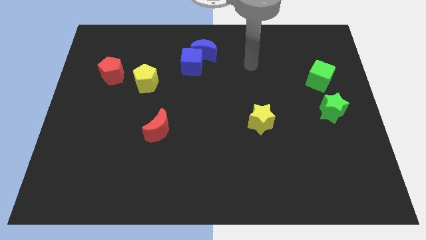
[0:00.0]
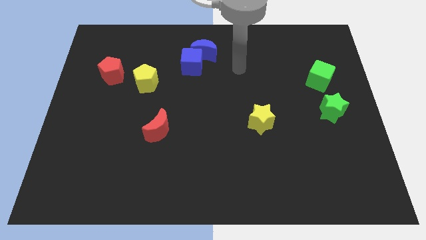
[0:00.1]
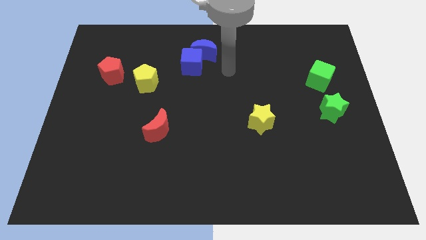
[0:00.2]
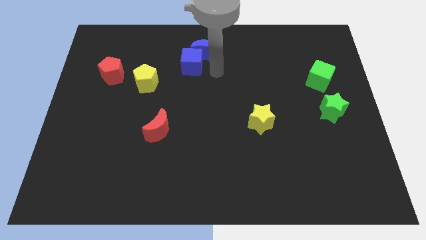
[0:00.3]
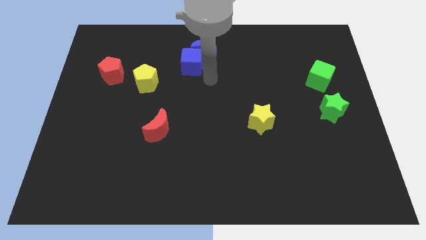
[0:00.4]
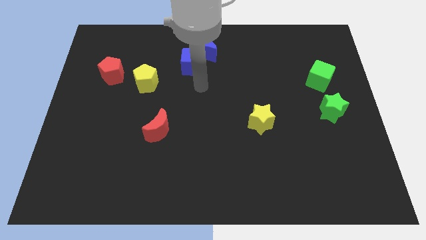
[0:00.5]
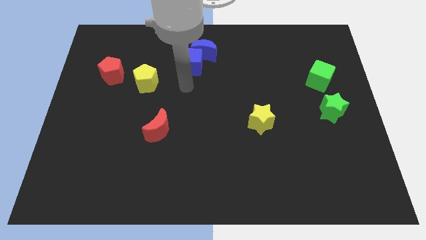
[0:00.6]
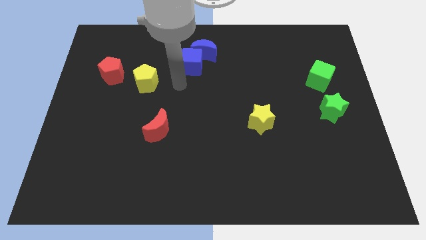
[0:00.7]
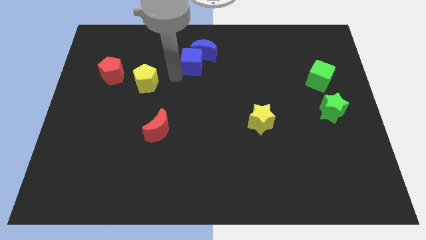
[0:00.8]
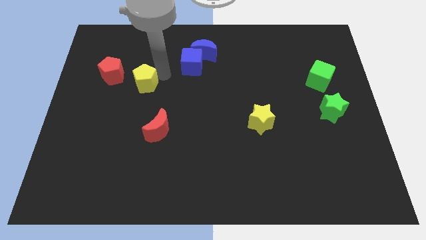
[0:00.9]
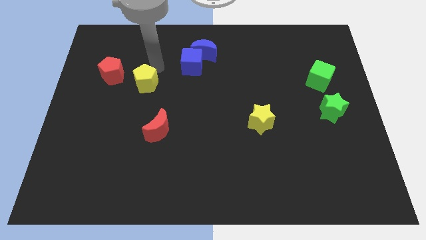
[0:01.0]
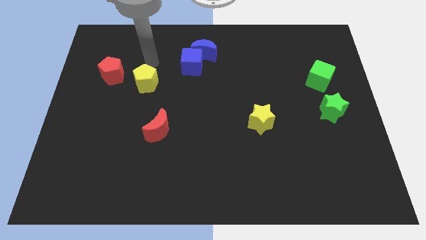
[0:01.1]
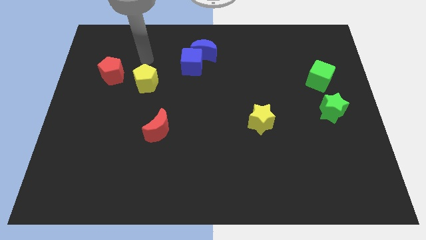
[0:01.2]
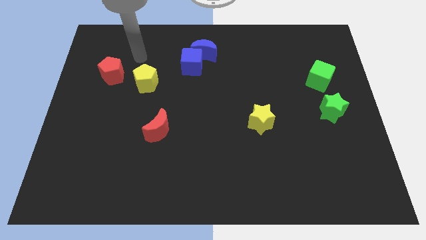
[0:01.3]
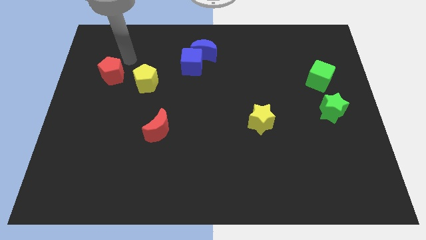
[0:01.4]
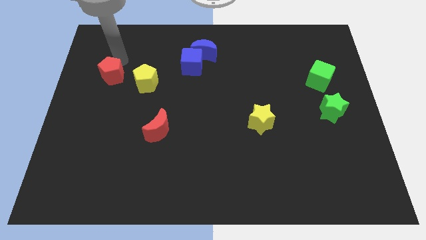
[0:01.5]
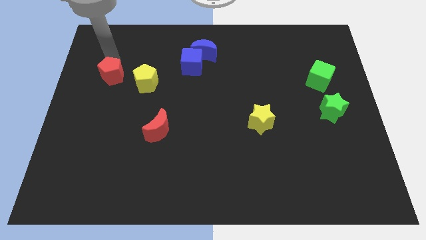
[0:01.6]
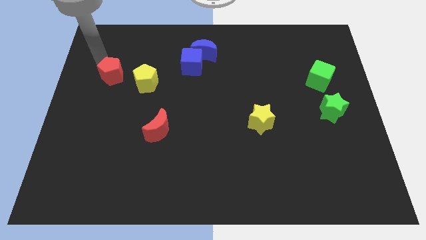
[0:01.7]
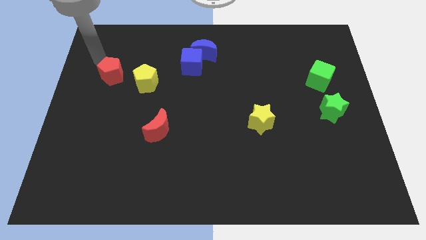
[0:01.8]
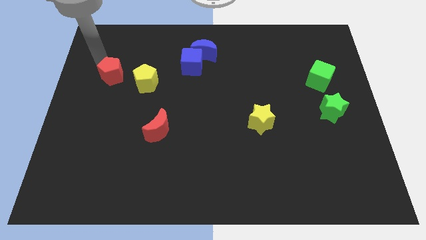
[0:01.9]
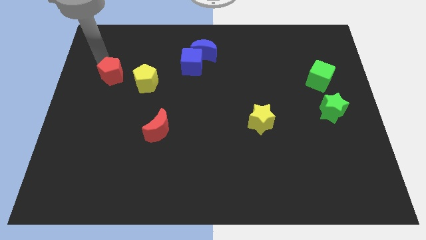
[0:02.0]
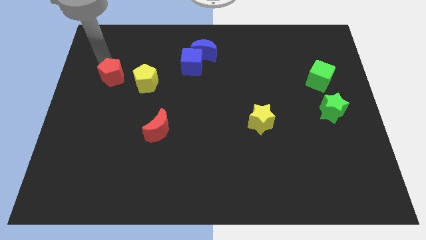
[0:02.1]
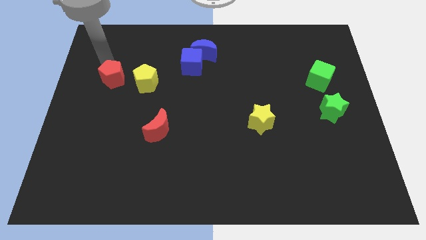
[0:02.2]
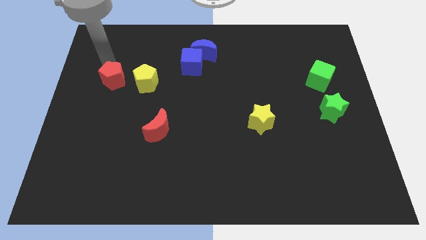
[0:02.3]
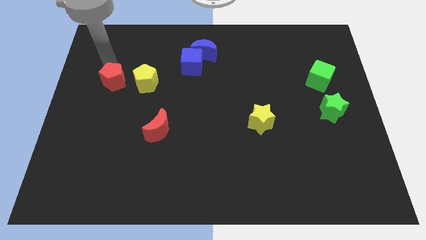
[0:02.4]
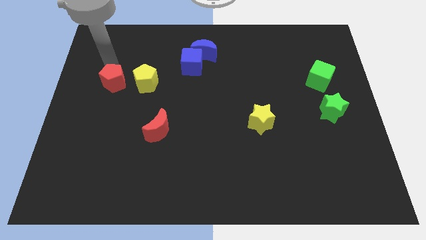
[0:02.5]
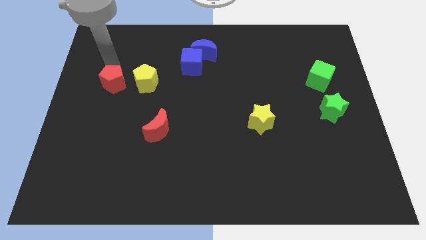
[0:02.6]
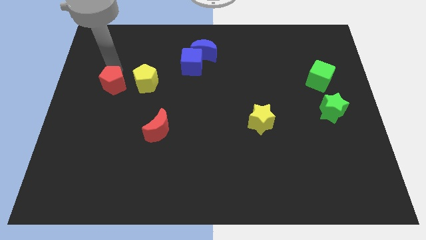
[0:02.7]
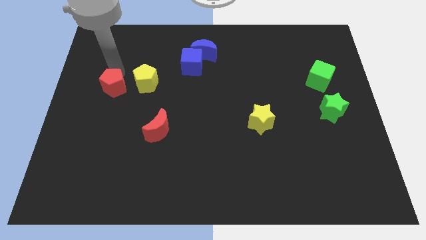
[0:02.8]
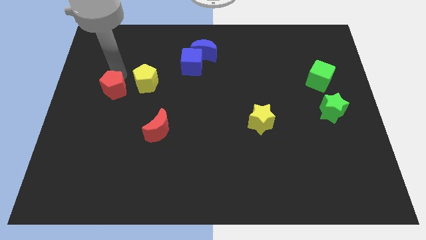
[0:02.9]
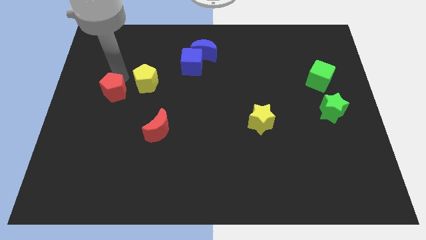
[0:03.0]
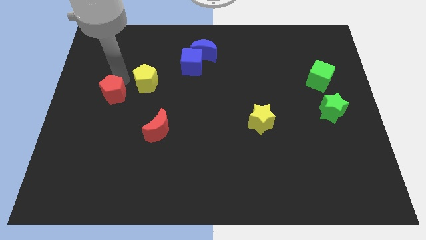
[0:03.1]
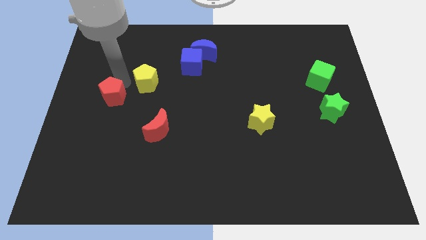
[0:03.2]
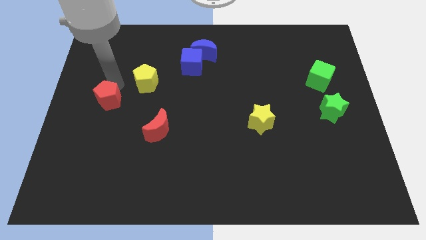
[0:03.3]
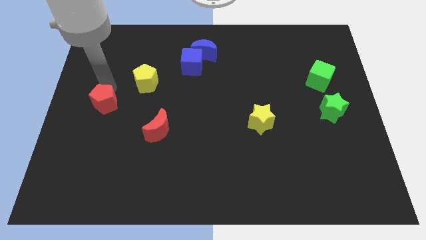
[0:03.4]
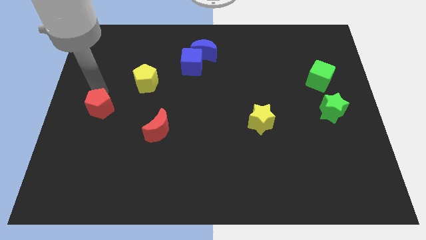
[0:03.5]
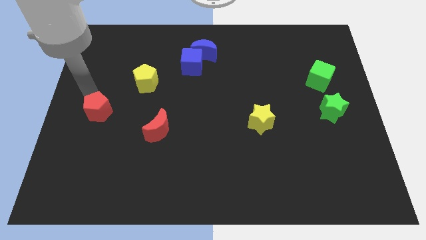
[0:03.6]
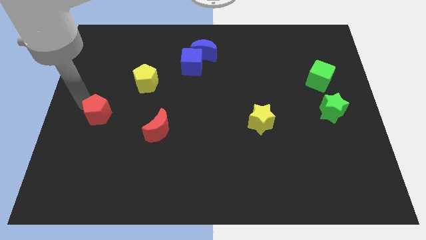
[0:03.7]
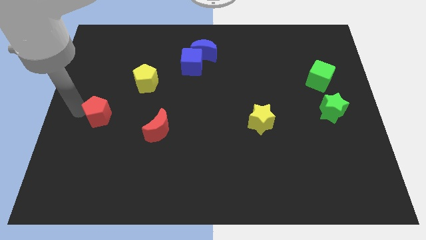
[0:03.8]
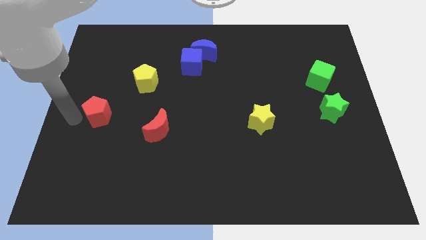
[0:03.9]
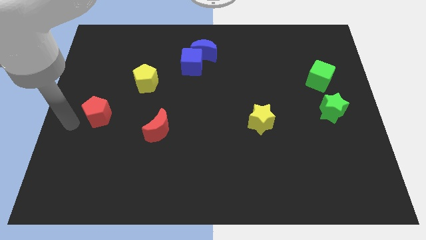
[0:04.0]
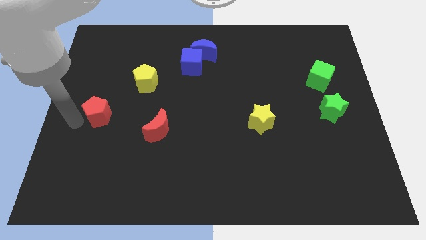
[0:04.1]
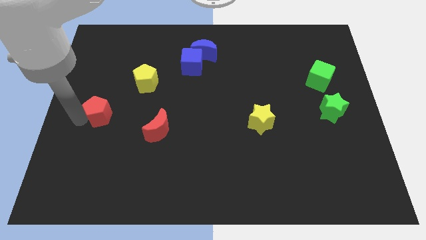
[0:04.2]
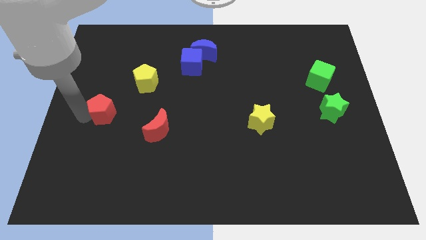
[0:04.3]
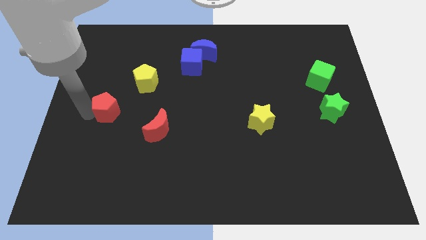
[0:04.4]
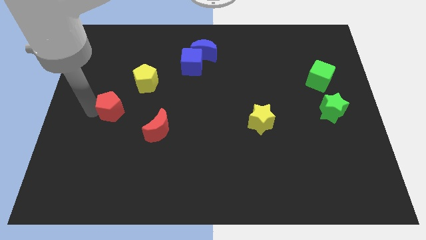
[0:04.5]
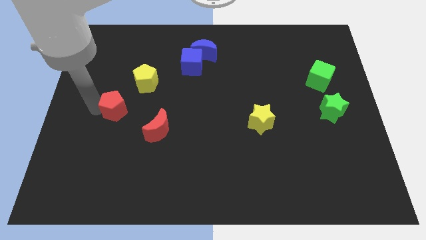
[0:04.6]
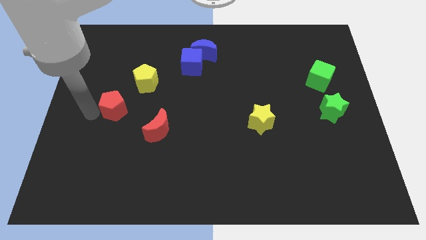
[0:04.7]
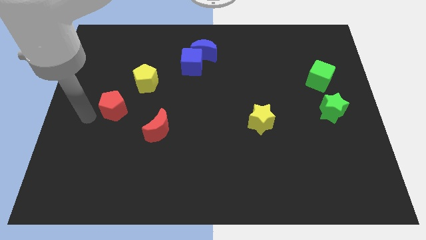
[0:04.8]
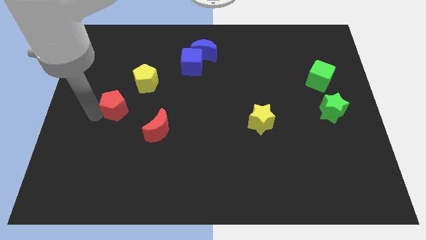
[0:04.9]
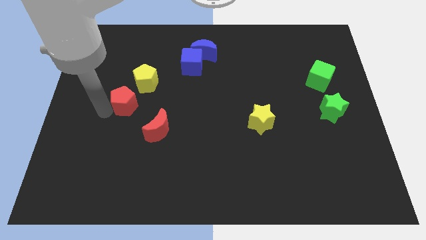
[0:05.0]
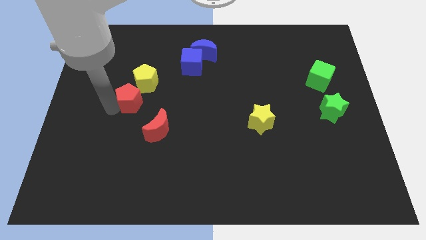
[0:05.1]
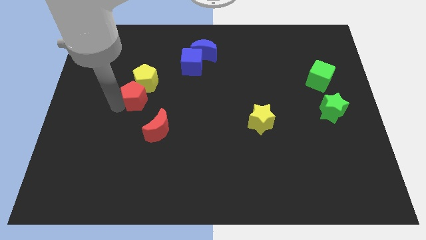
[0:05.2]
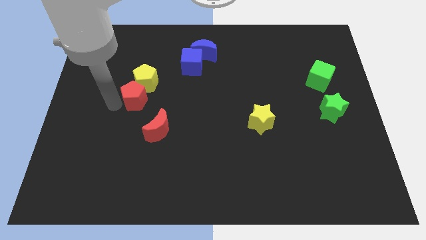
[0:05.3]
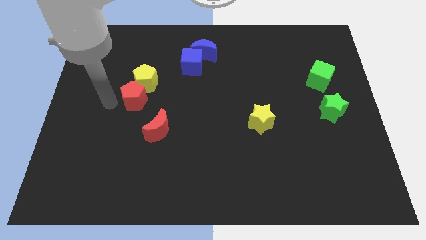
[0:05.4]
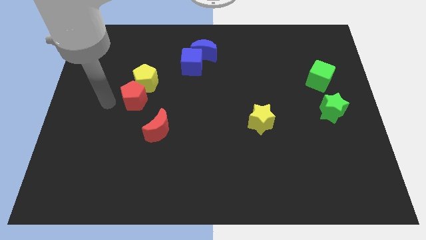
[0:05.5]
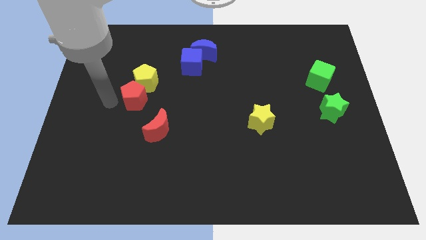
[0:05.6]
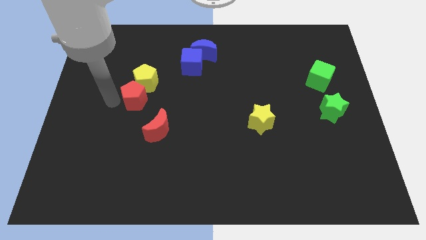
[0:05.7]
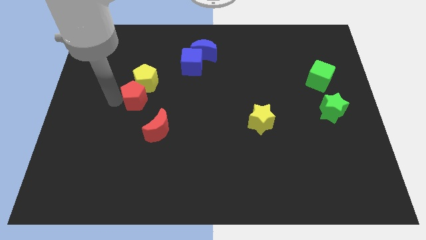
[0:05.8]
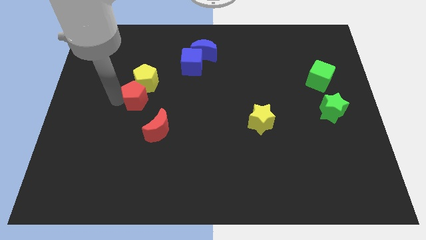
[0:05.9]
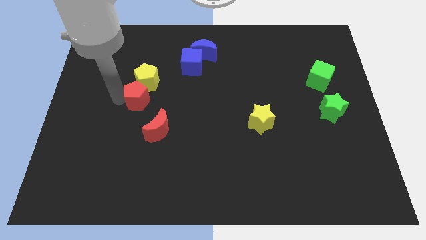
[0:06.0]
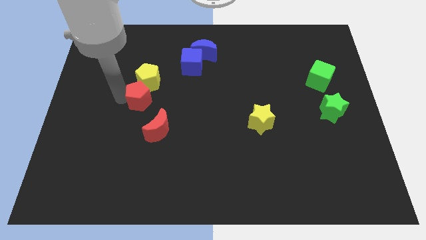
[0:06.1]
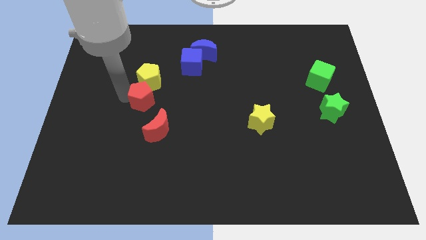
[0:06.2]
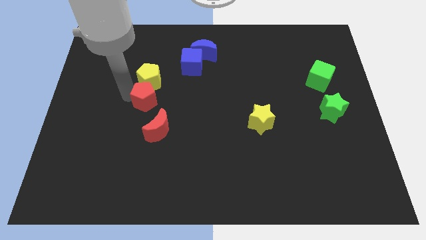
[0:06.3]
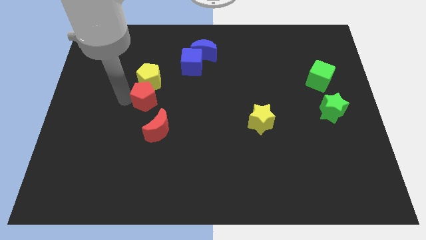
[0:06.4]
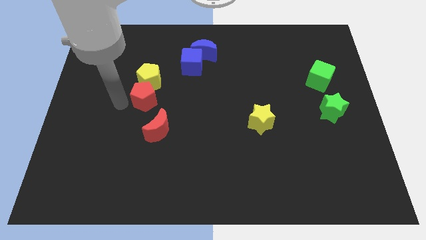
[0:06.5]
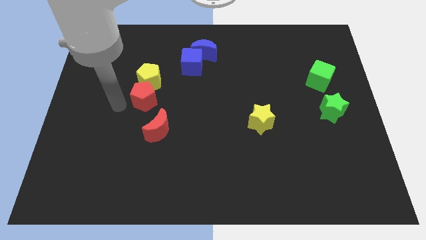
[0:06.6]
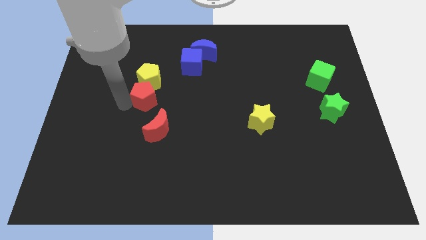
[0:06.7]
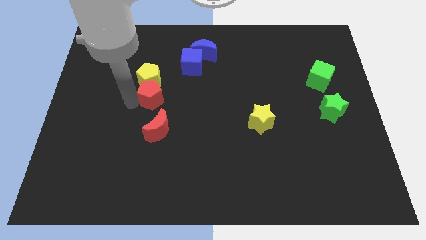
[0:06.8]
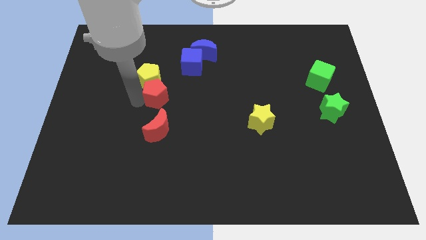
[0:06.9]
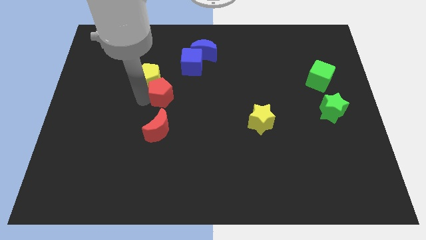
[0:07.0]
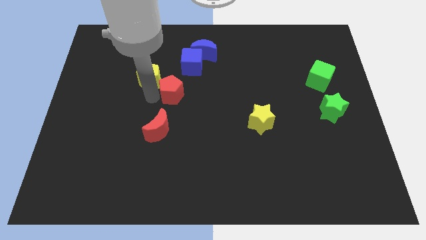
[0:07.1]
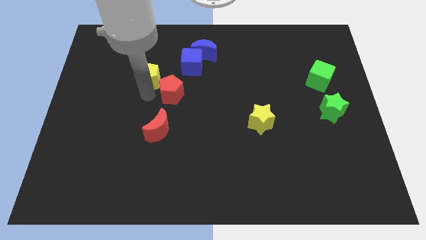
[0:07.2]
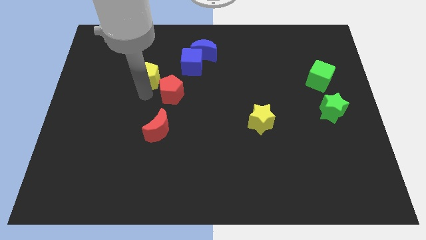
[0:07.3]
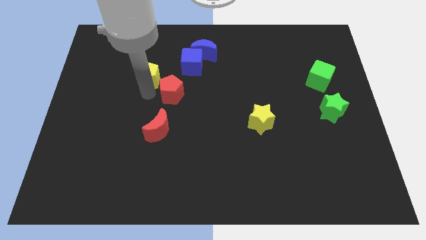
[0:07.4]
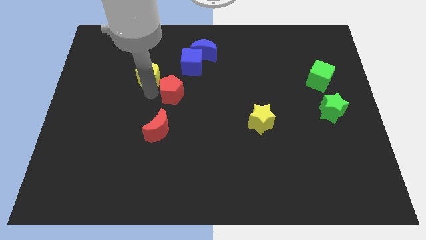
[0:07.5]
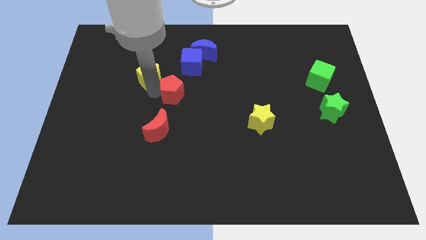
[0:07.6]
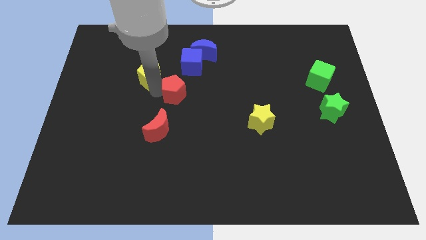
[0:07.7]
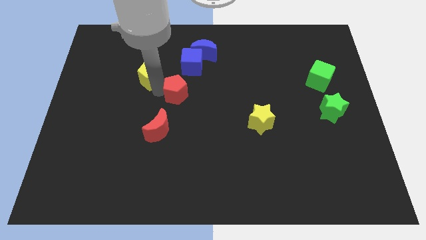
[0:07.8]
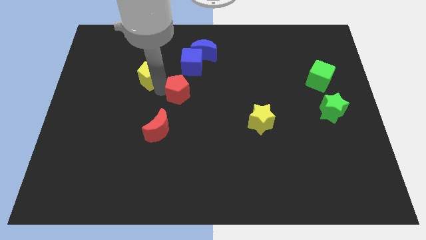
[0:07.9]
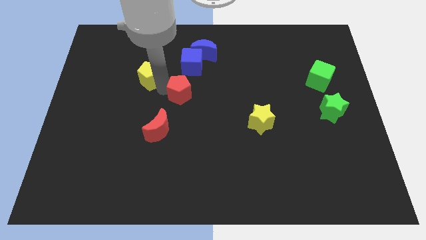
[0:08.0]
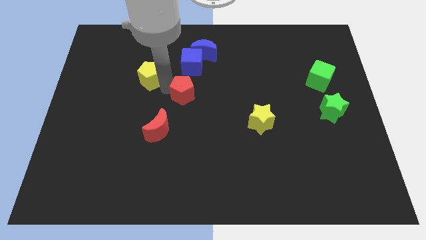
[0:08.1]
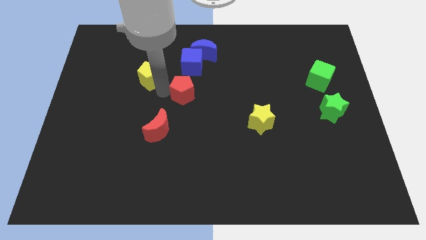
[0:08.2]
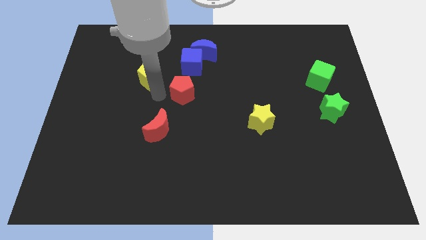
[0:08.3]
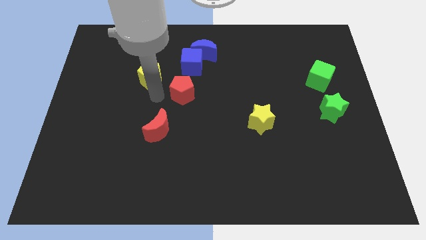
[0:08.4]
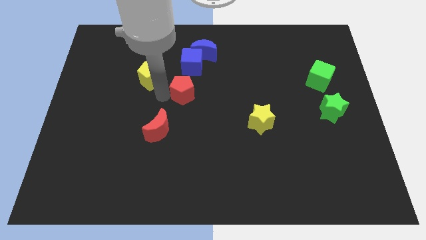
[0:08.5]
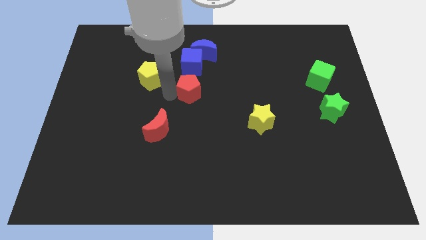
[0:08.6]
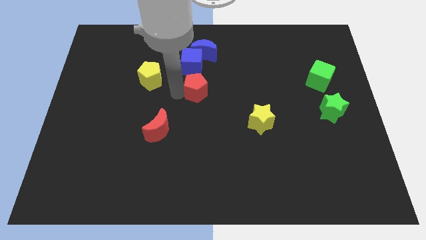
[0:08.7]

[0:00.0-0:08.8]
slide the red pentagon right
